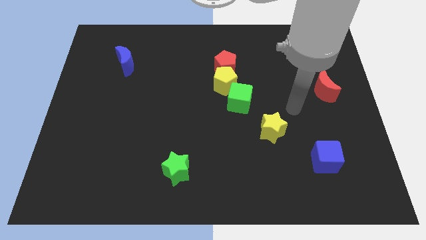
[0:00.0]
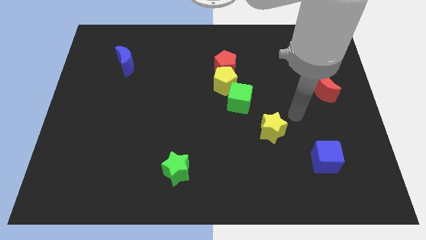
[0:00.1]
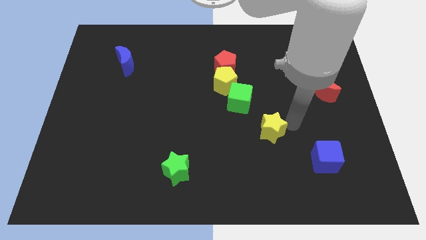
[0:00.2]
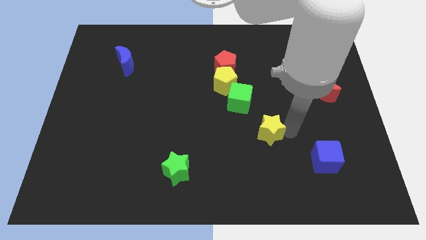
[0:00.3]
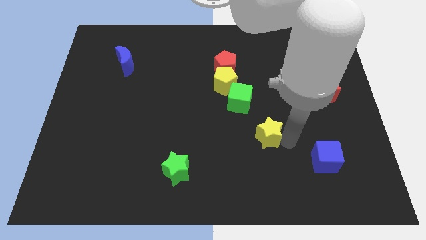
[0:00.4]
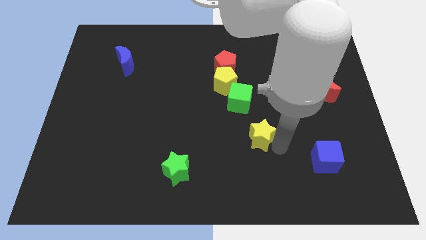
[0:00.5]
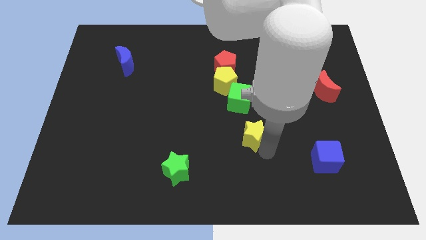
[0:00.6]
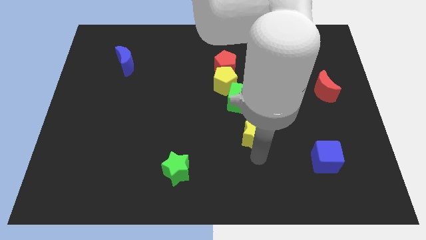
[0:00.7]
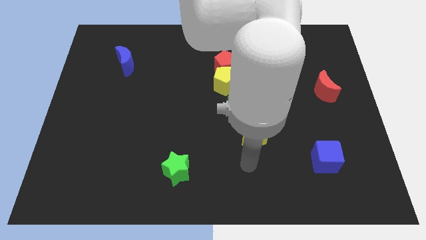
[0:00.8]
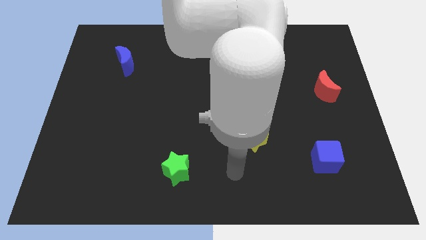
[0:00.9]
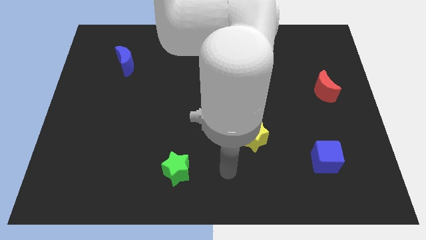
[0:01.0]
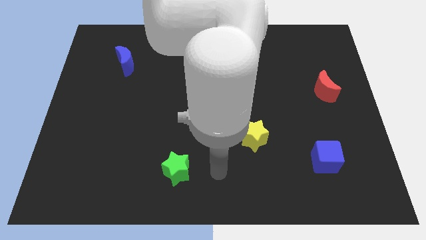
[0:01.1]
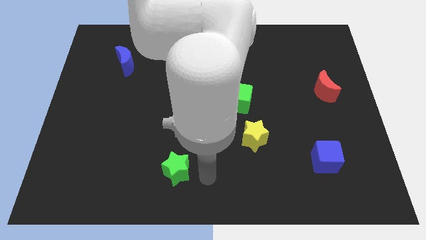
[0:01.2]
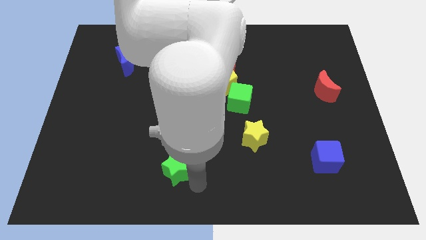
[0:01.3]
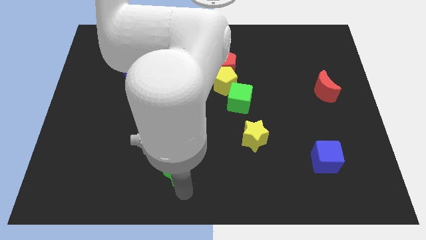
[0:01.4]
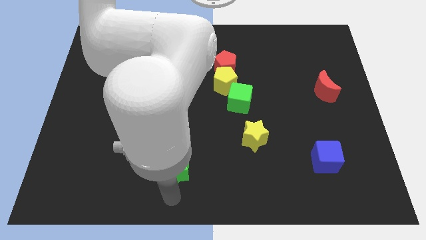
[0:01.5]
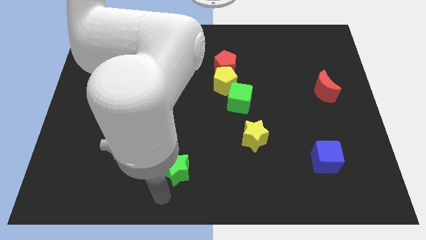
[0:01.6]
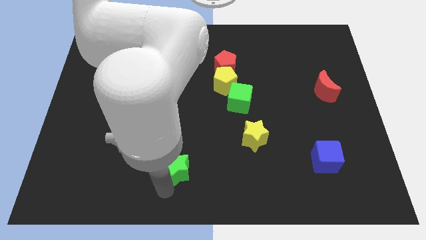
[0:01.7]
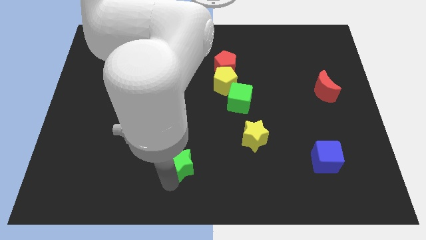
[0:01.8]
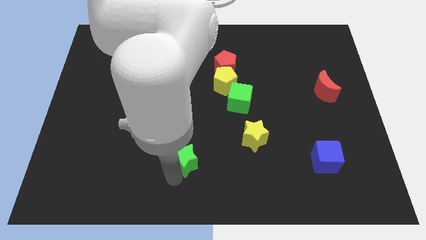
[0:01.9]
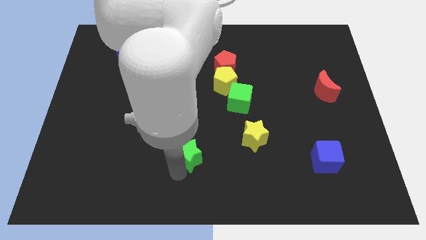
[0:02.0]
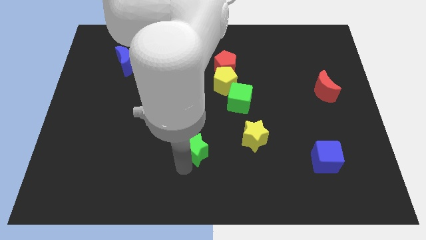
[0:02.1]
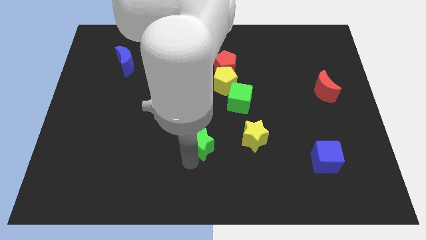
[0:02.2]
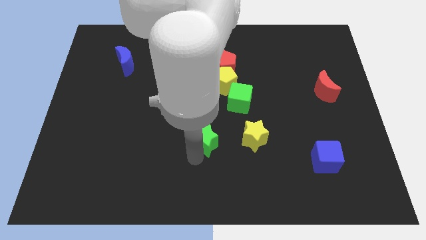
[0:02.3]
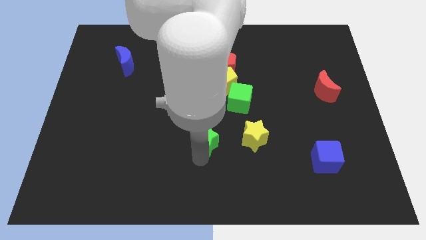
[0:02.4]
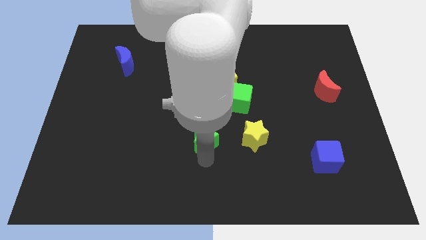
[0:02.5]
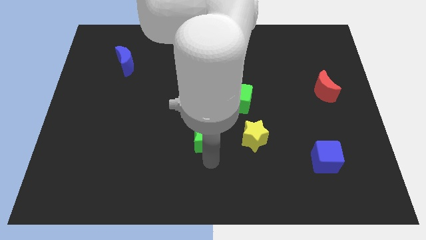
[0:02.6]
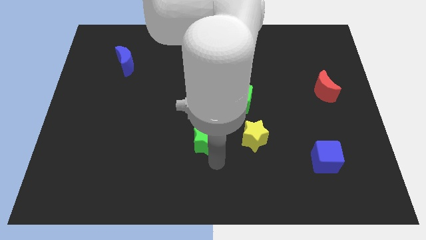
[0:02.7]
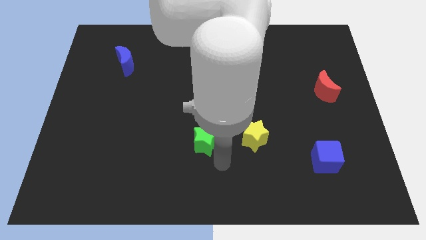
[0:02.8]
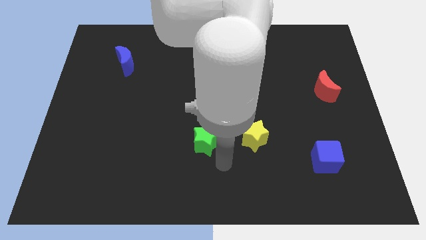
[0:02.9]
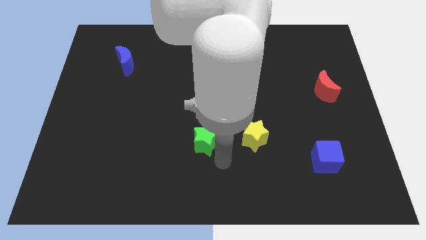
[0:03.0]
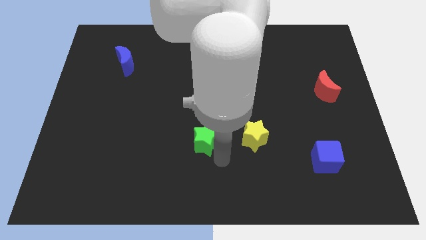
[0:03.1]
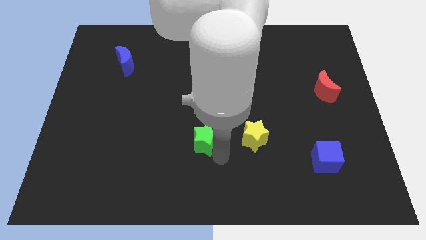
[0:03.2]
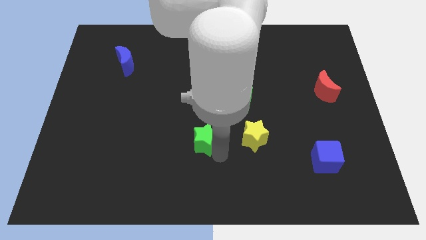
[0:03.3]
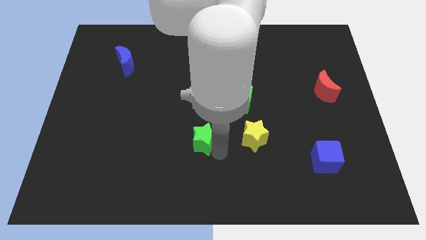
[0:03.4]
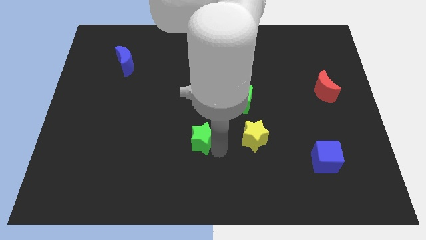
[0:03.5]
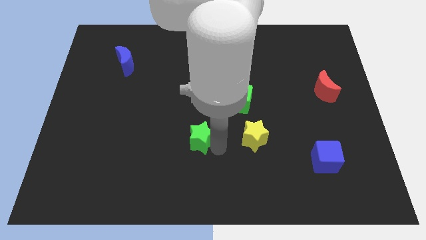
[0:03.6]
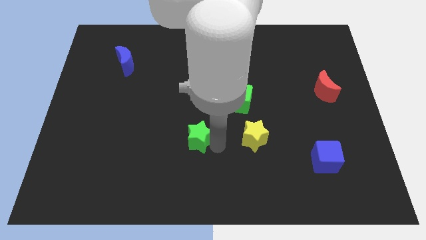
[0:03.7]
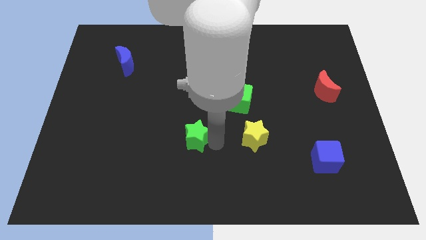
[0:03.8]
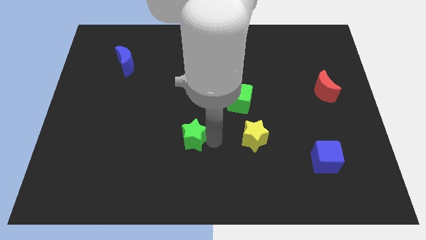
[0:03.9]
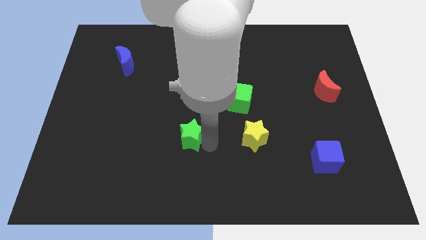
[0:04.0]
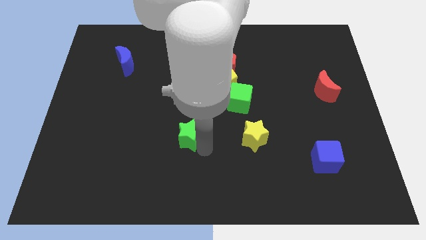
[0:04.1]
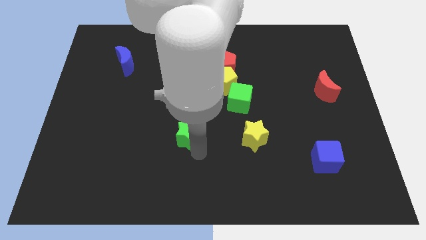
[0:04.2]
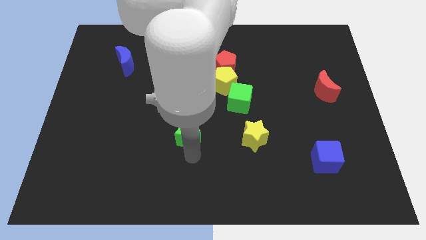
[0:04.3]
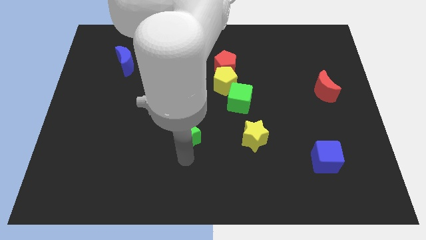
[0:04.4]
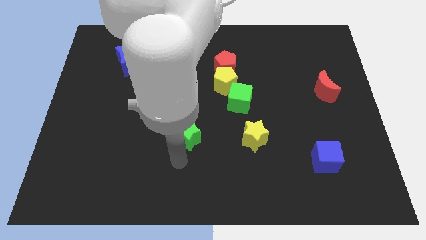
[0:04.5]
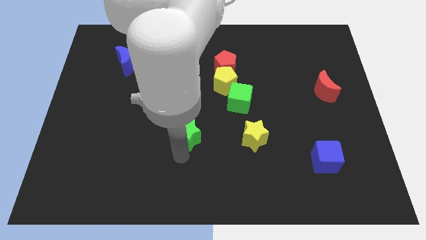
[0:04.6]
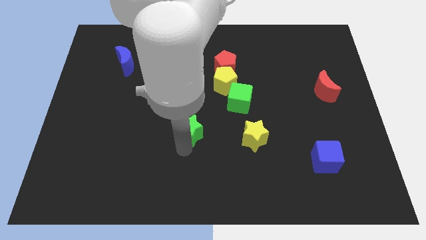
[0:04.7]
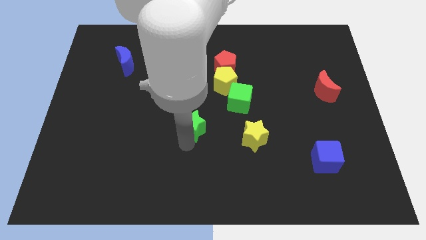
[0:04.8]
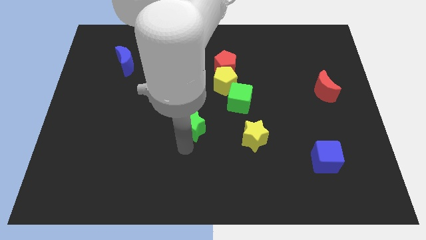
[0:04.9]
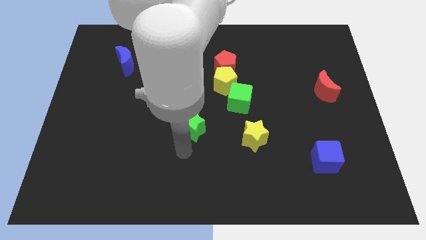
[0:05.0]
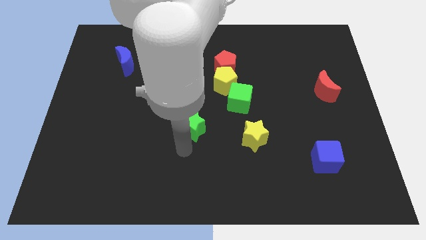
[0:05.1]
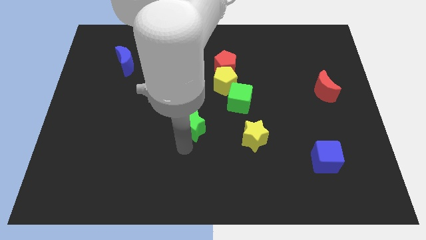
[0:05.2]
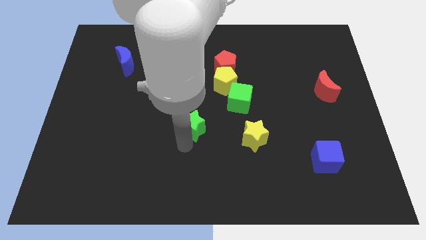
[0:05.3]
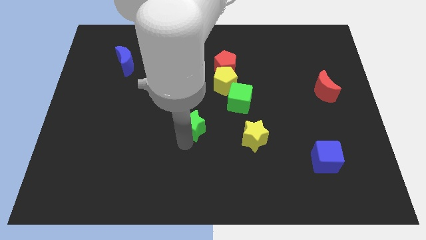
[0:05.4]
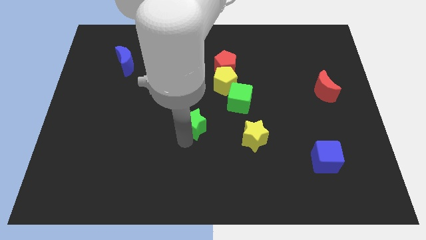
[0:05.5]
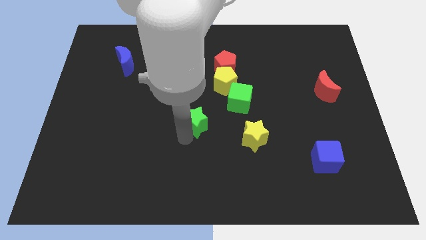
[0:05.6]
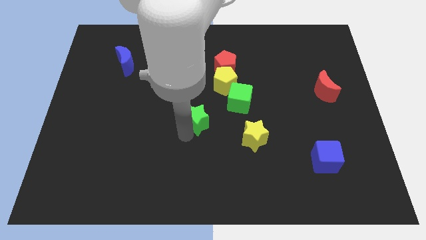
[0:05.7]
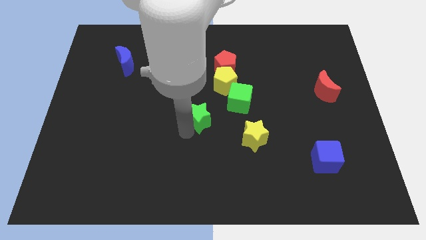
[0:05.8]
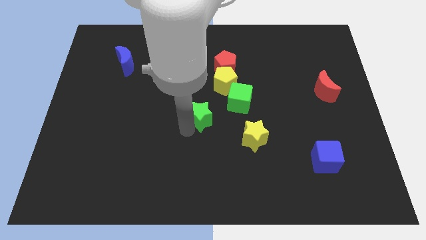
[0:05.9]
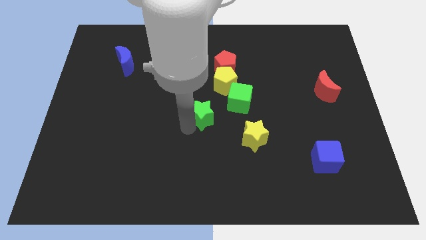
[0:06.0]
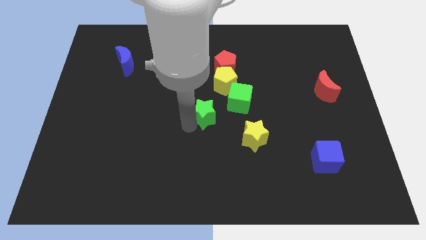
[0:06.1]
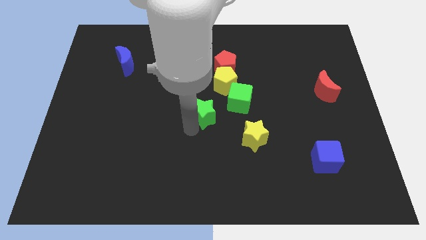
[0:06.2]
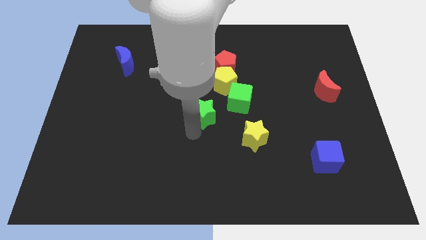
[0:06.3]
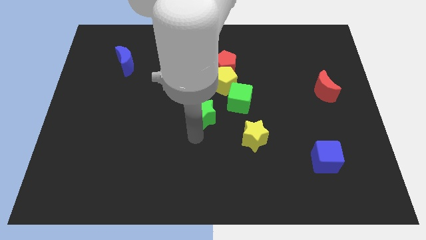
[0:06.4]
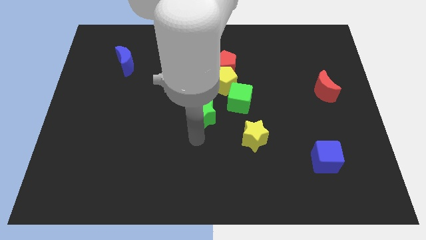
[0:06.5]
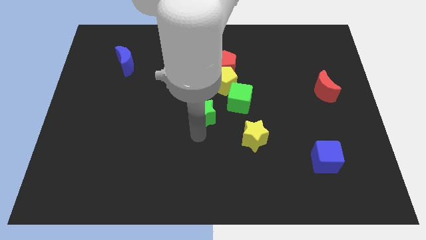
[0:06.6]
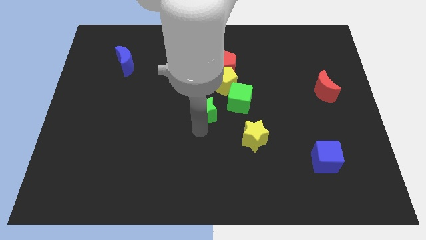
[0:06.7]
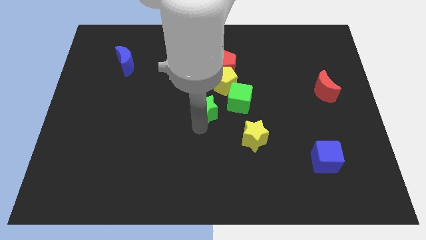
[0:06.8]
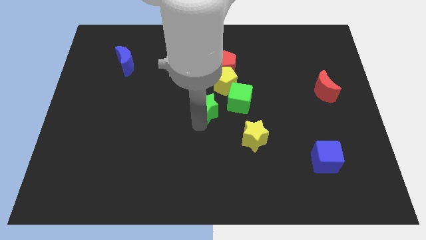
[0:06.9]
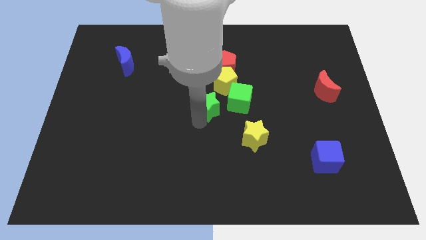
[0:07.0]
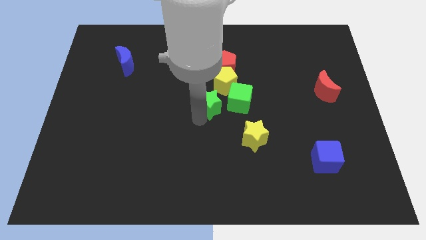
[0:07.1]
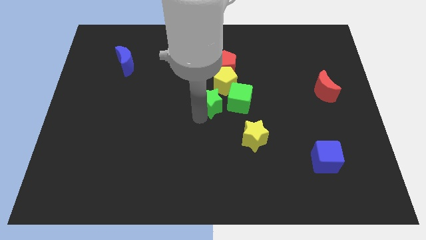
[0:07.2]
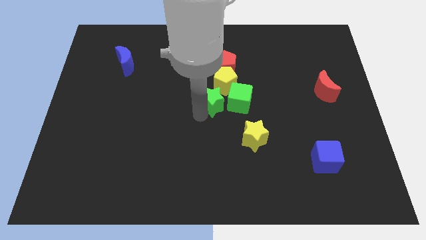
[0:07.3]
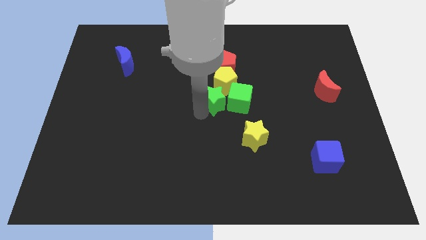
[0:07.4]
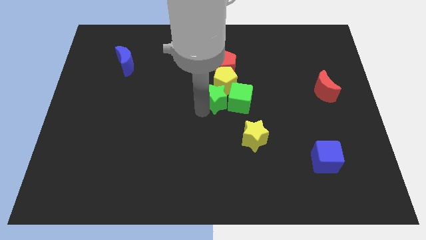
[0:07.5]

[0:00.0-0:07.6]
push the green star next to the yellow pentagon
